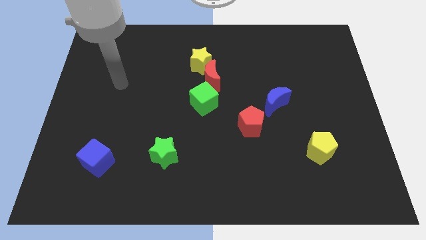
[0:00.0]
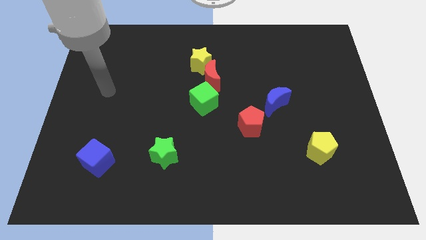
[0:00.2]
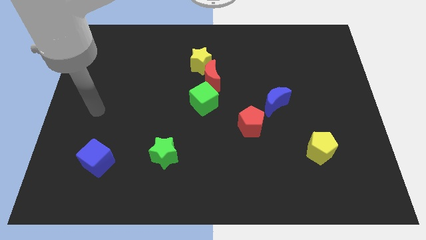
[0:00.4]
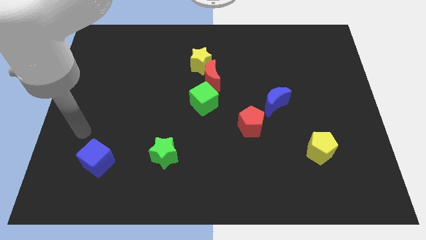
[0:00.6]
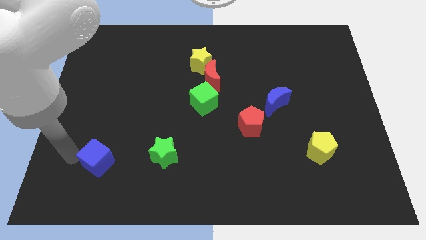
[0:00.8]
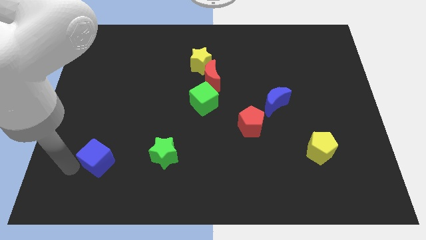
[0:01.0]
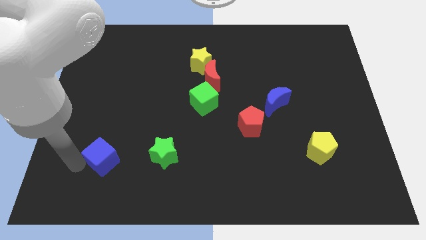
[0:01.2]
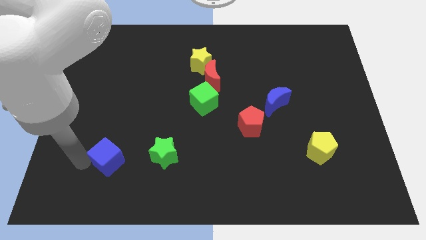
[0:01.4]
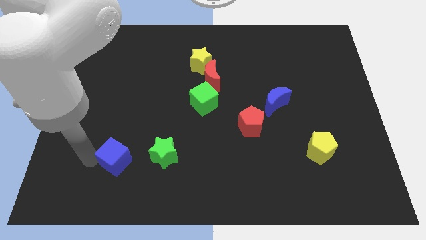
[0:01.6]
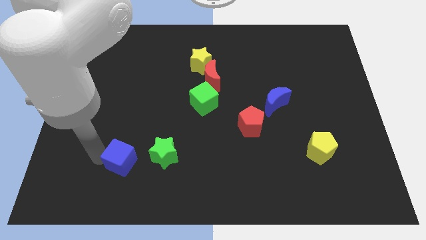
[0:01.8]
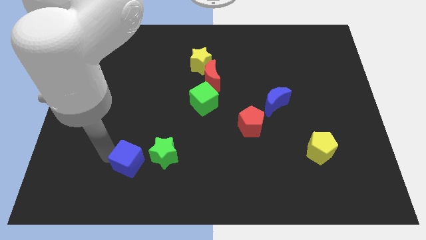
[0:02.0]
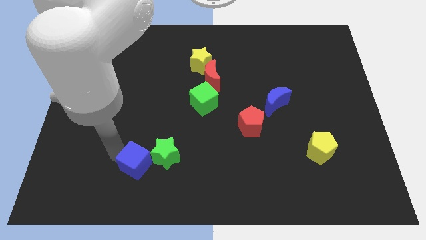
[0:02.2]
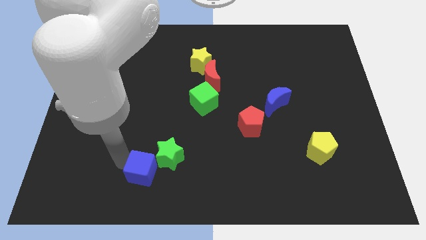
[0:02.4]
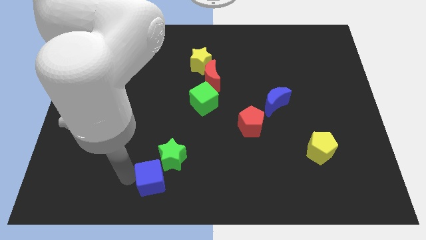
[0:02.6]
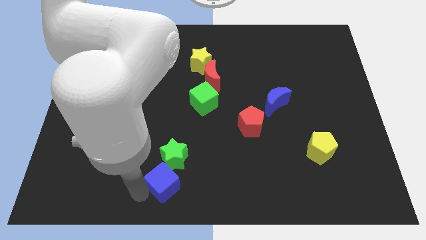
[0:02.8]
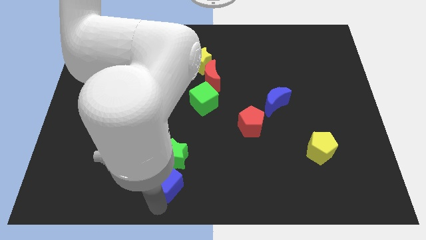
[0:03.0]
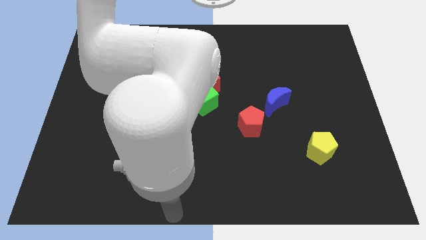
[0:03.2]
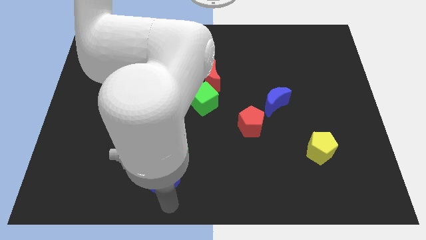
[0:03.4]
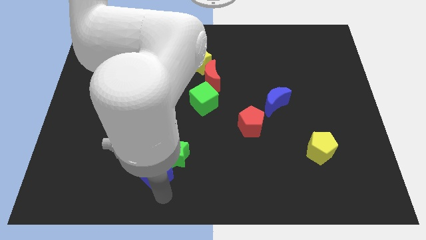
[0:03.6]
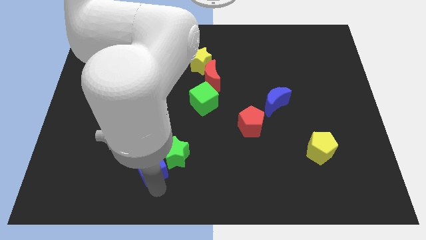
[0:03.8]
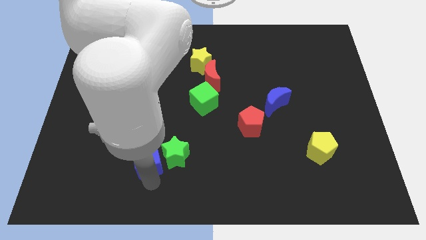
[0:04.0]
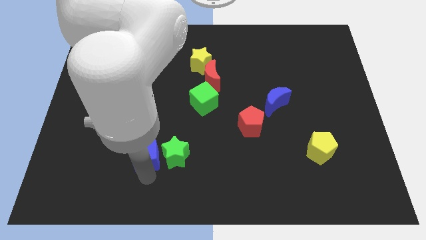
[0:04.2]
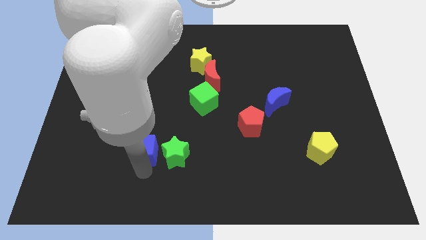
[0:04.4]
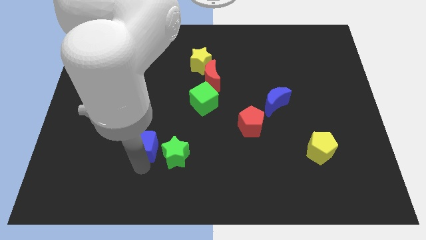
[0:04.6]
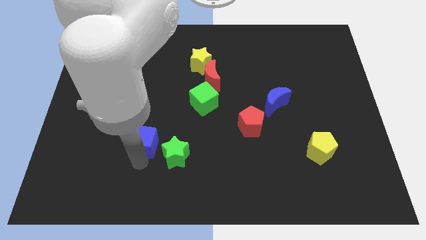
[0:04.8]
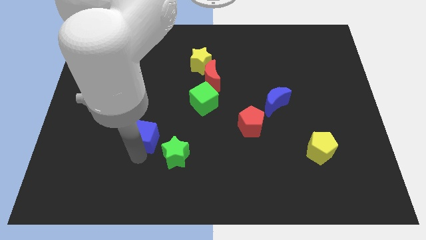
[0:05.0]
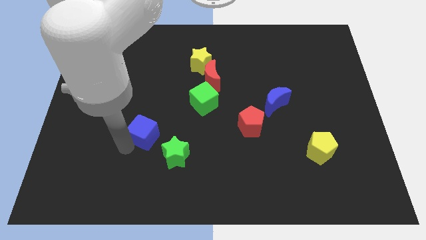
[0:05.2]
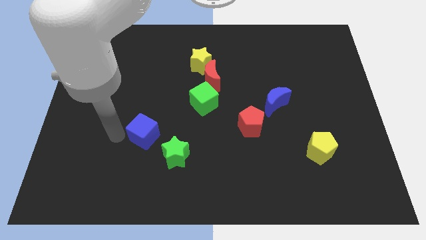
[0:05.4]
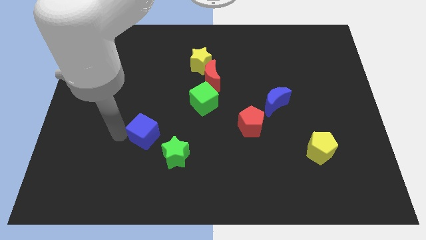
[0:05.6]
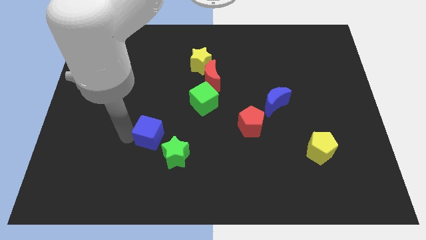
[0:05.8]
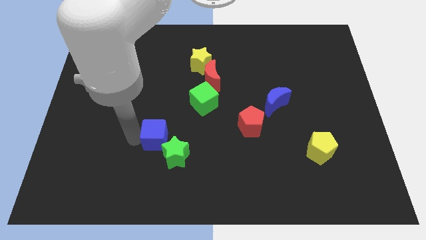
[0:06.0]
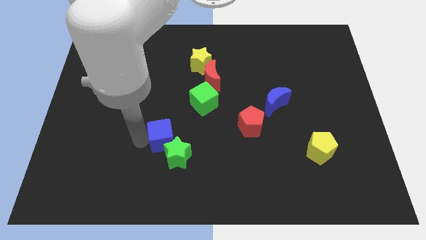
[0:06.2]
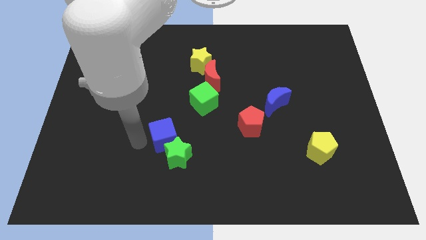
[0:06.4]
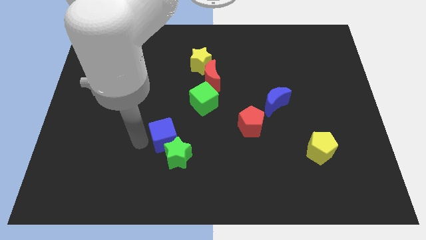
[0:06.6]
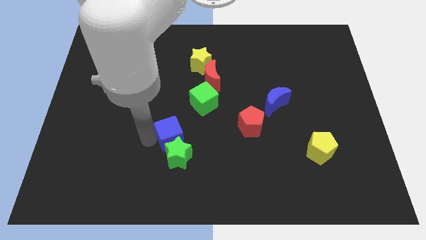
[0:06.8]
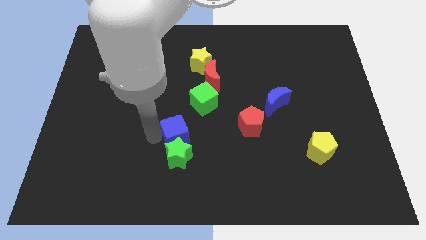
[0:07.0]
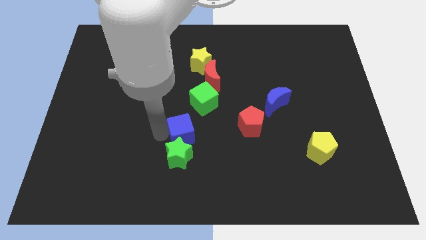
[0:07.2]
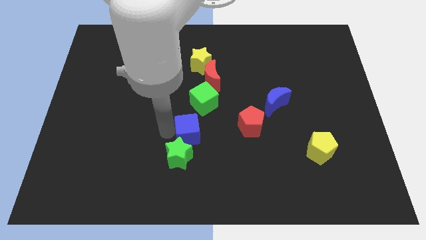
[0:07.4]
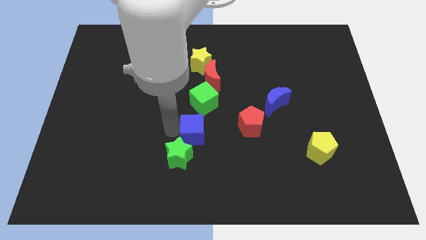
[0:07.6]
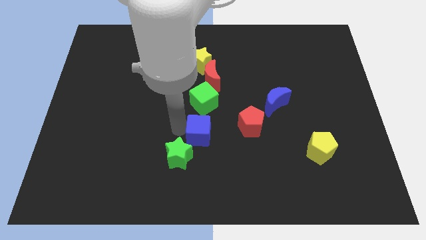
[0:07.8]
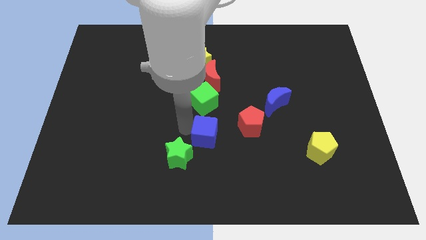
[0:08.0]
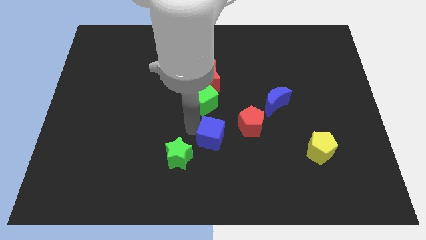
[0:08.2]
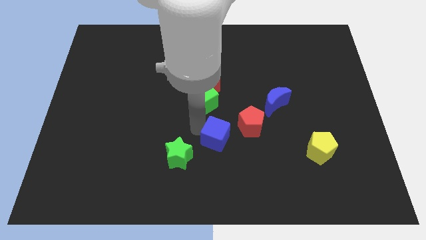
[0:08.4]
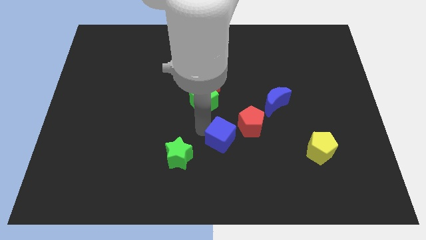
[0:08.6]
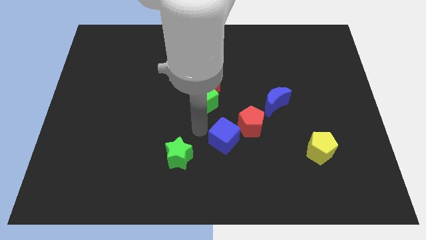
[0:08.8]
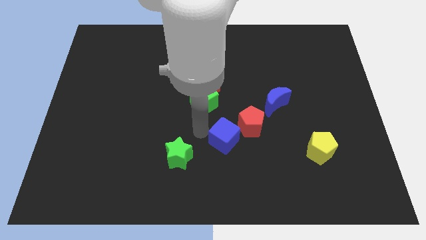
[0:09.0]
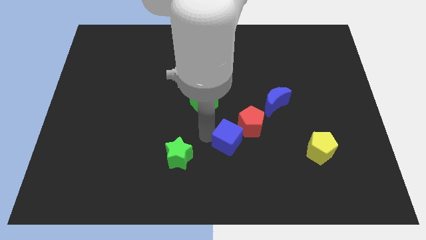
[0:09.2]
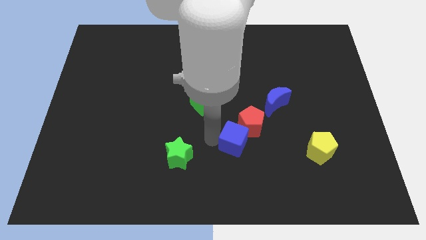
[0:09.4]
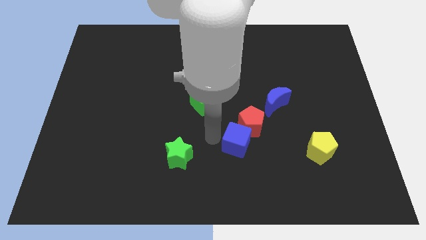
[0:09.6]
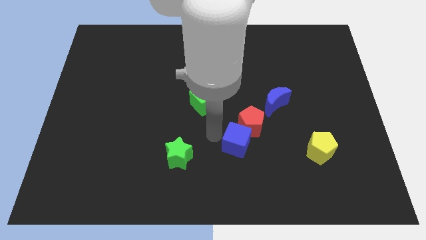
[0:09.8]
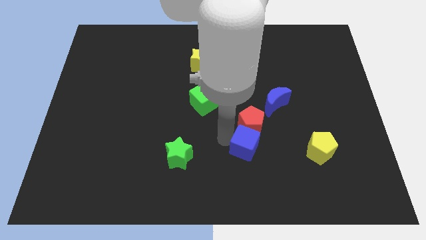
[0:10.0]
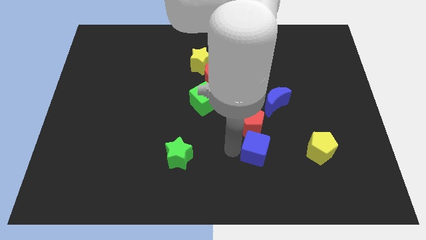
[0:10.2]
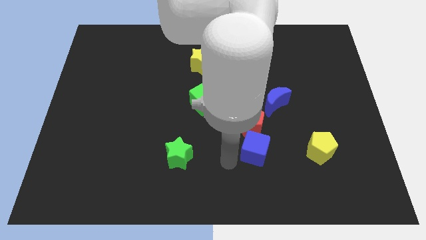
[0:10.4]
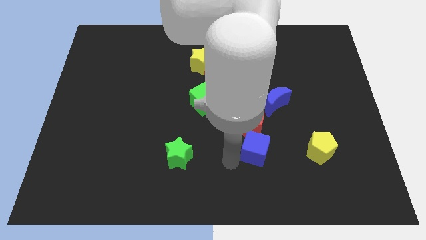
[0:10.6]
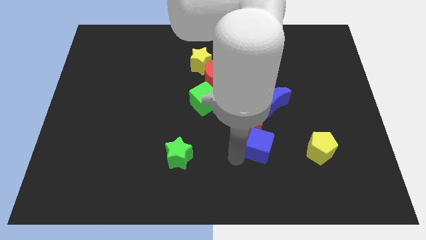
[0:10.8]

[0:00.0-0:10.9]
move the blue cube below the blue moon
